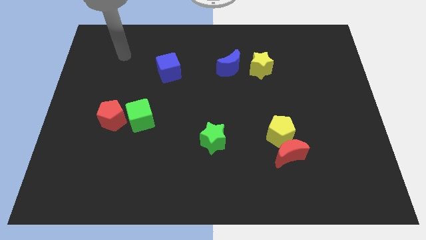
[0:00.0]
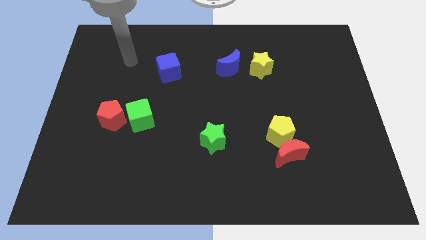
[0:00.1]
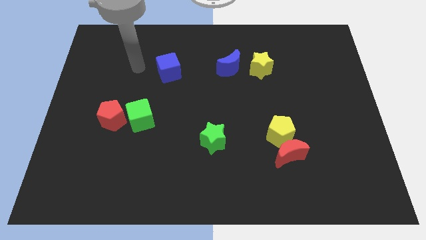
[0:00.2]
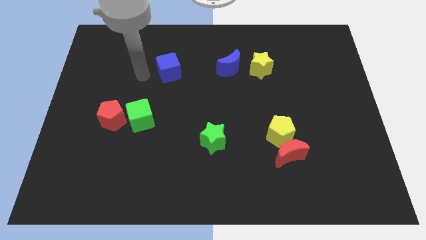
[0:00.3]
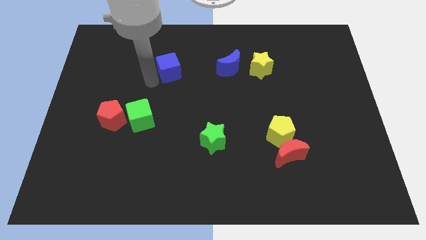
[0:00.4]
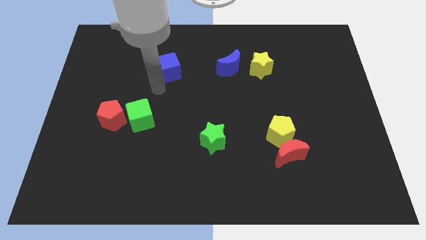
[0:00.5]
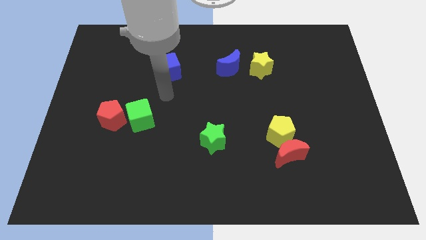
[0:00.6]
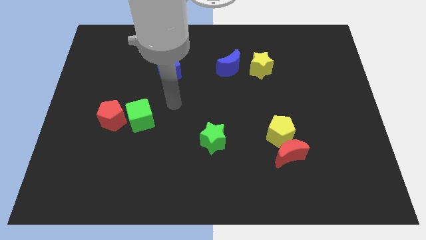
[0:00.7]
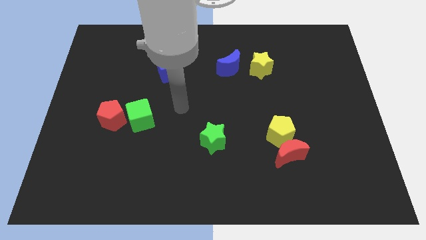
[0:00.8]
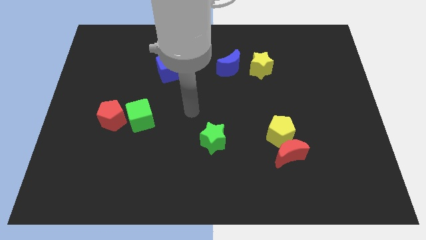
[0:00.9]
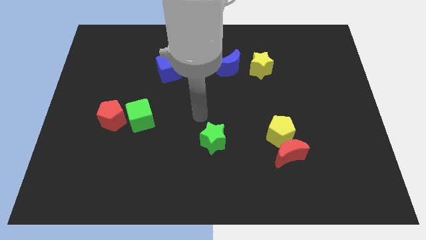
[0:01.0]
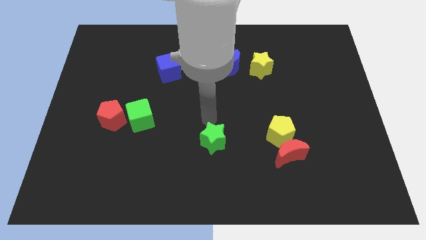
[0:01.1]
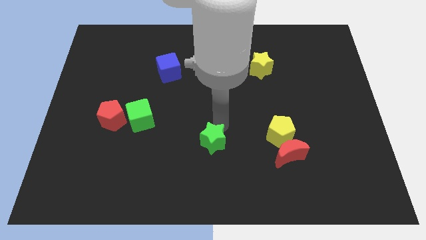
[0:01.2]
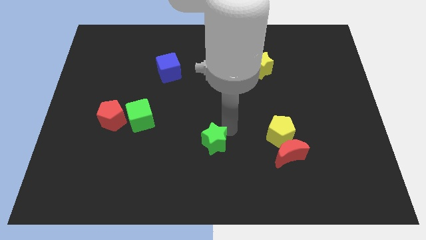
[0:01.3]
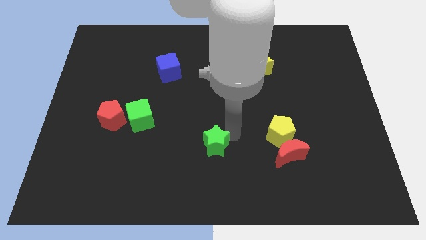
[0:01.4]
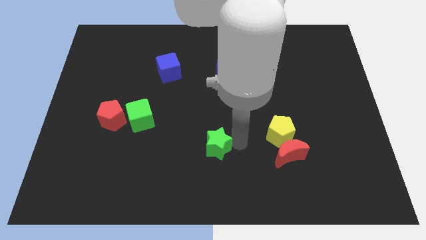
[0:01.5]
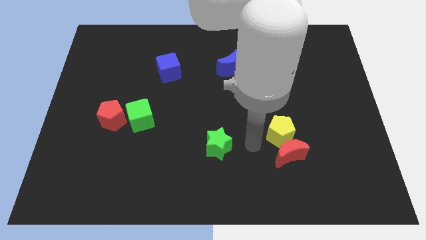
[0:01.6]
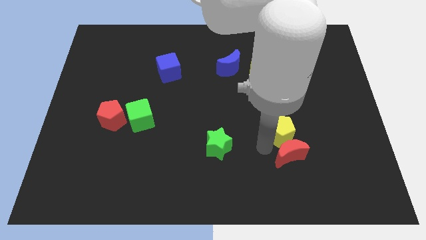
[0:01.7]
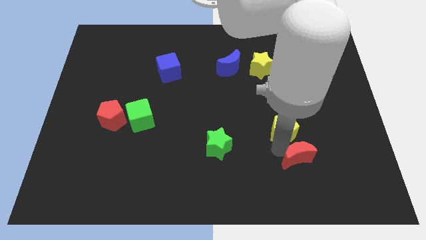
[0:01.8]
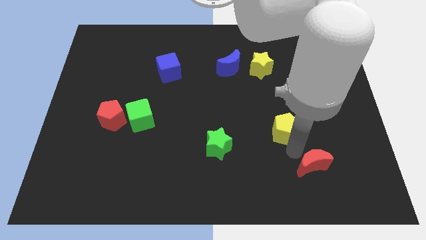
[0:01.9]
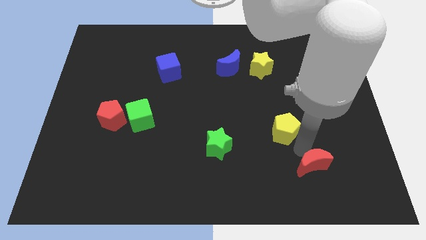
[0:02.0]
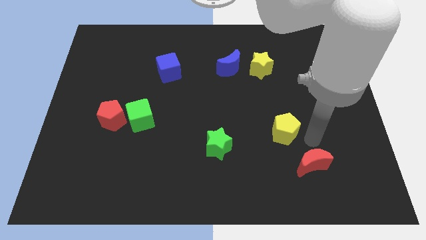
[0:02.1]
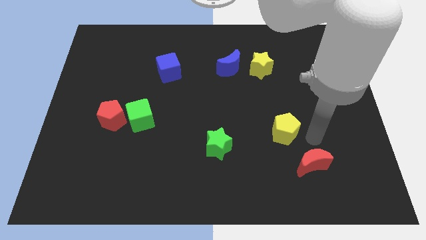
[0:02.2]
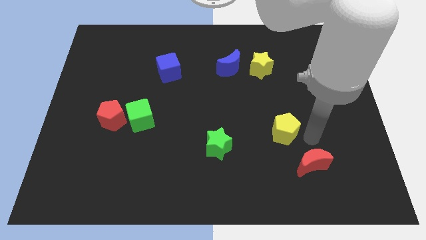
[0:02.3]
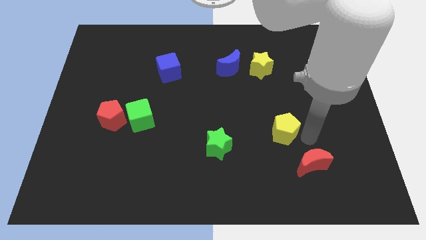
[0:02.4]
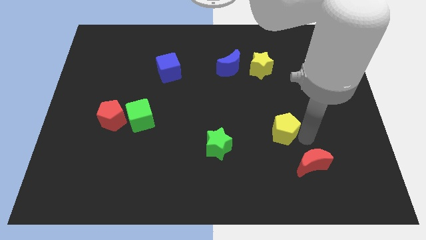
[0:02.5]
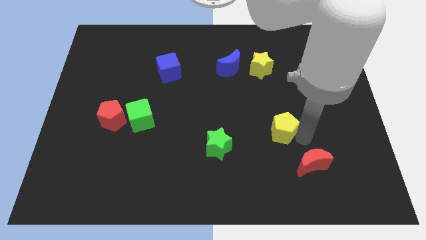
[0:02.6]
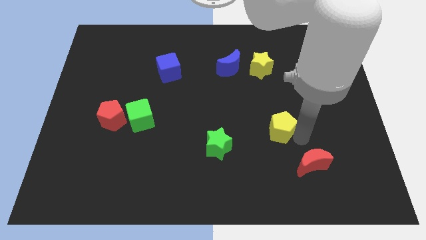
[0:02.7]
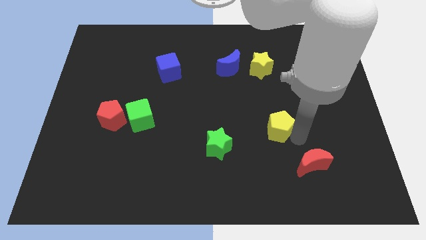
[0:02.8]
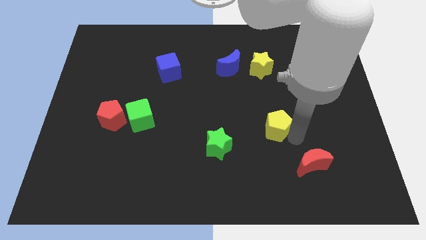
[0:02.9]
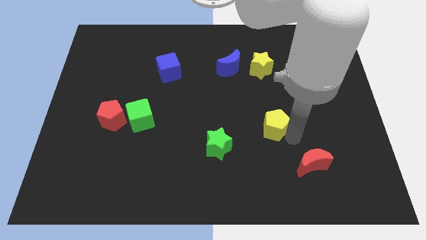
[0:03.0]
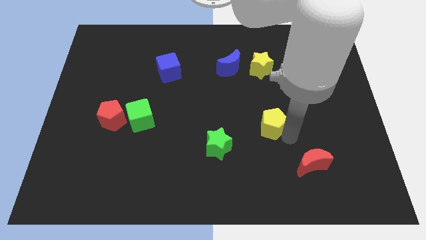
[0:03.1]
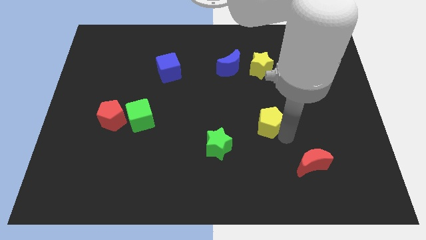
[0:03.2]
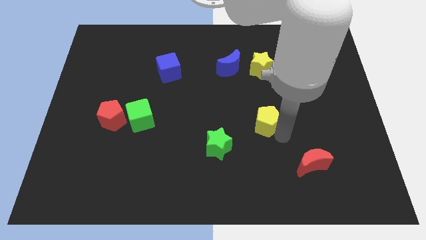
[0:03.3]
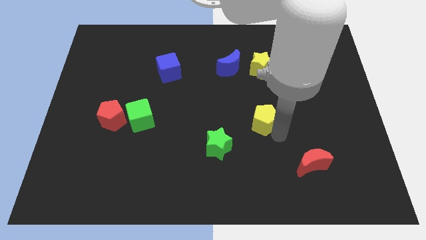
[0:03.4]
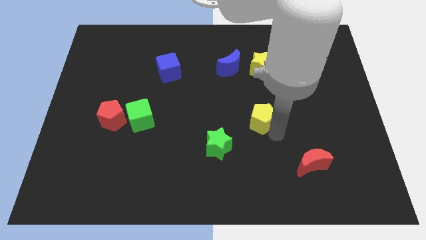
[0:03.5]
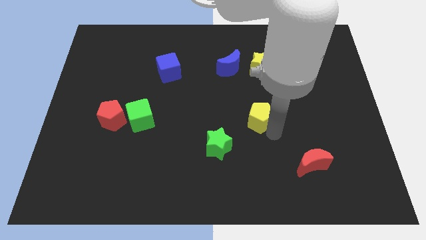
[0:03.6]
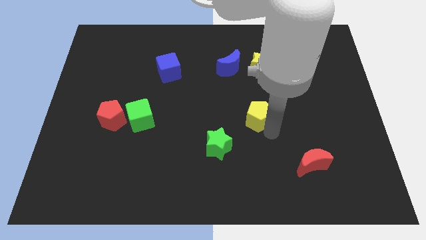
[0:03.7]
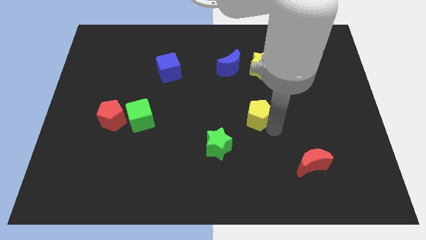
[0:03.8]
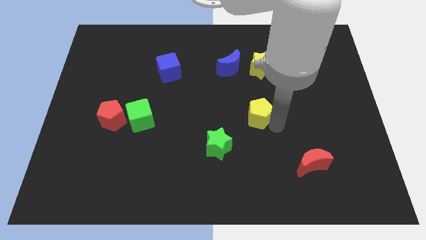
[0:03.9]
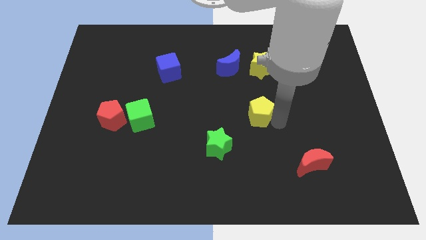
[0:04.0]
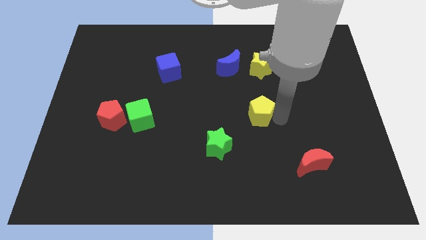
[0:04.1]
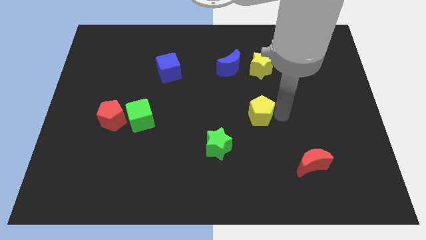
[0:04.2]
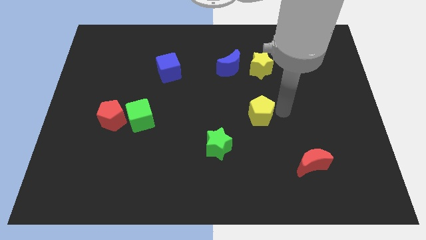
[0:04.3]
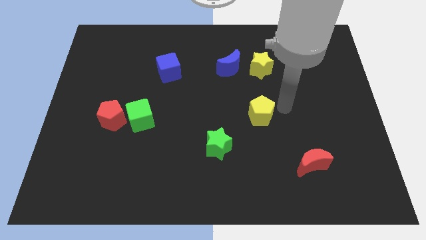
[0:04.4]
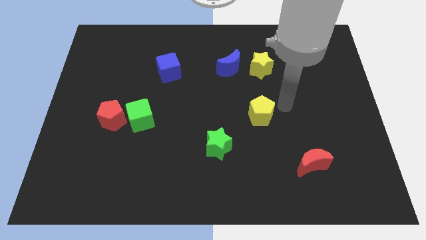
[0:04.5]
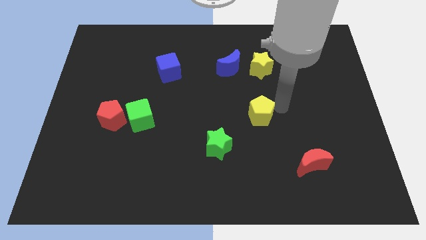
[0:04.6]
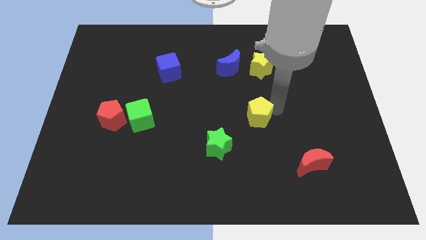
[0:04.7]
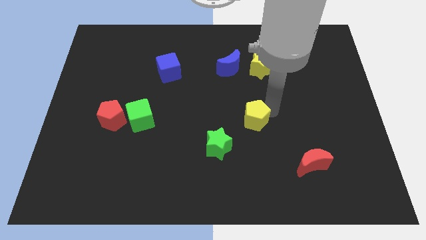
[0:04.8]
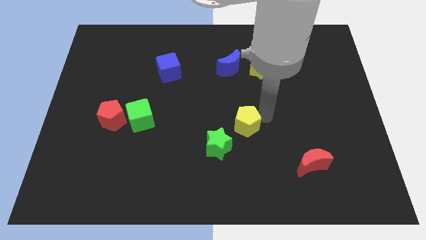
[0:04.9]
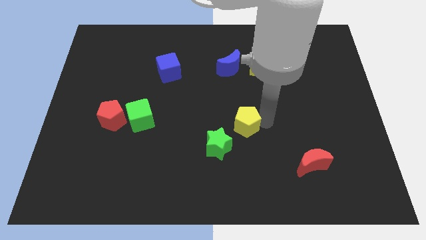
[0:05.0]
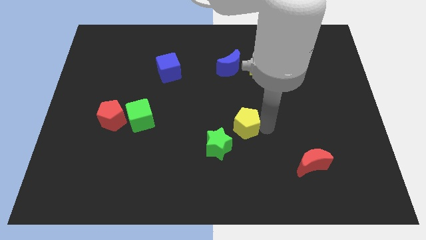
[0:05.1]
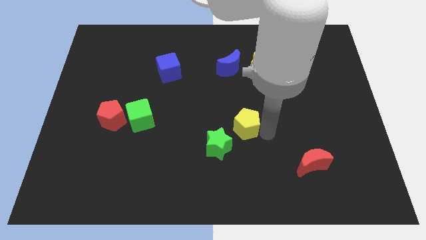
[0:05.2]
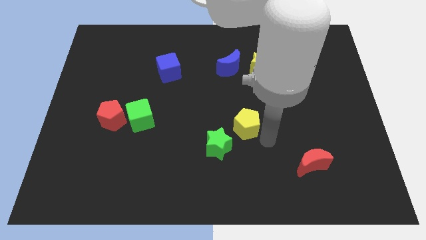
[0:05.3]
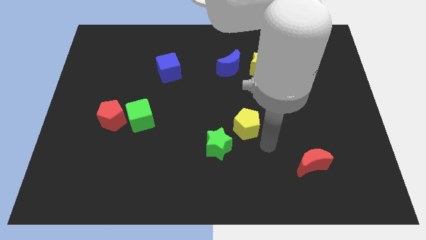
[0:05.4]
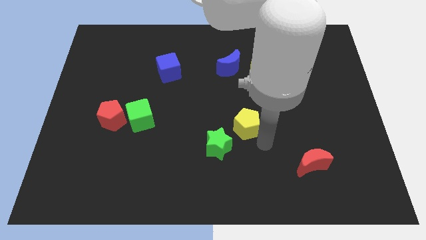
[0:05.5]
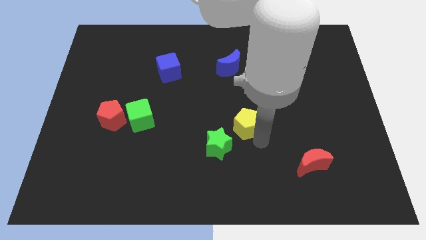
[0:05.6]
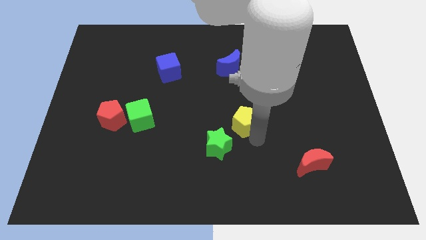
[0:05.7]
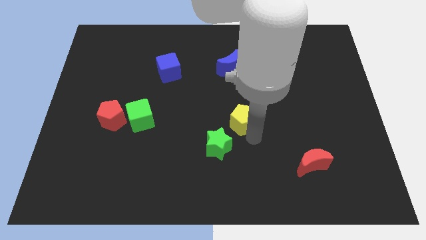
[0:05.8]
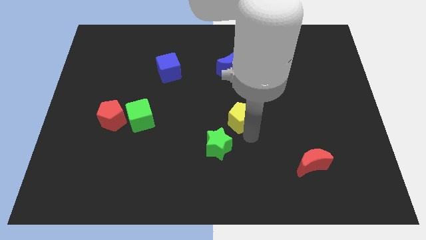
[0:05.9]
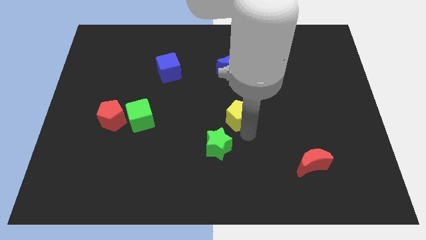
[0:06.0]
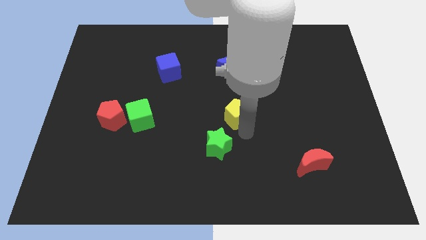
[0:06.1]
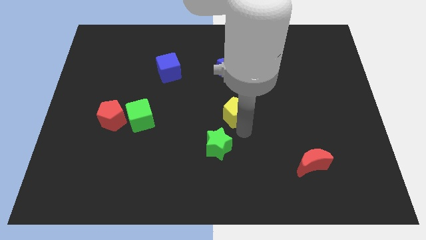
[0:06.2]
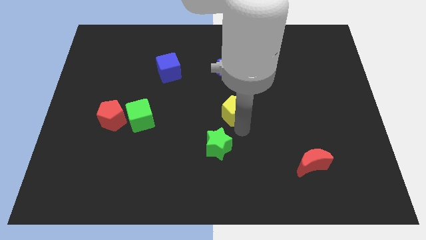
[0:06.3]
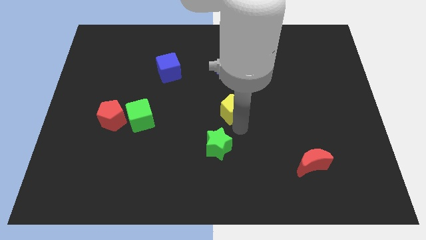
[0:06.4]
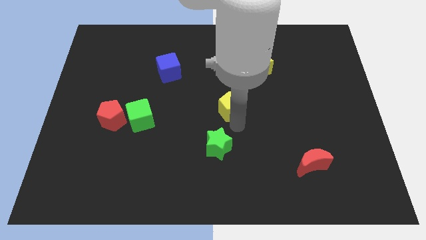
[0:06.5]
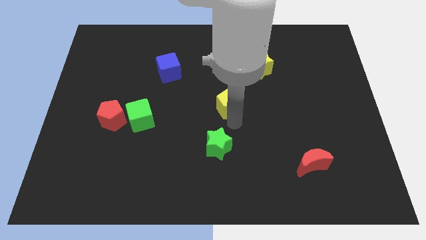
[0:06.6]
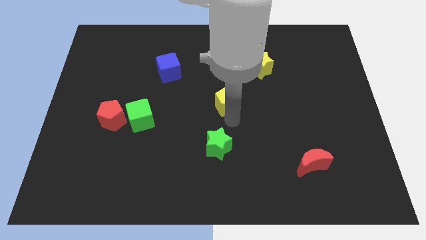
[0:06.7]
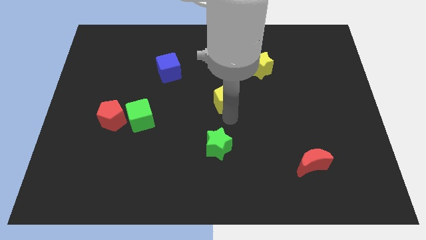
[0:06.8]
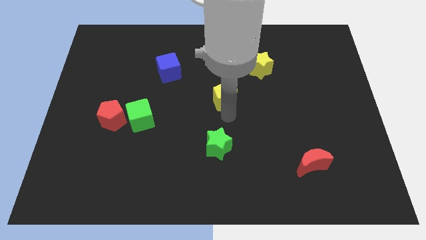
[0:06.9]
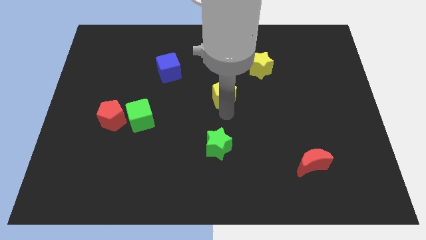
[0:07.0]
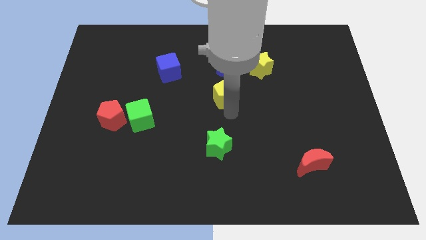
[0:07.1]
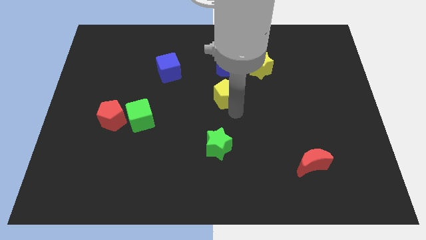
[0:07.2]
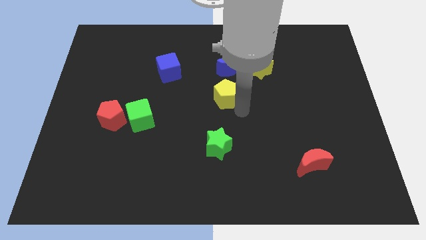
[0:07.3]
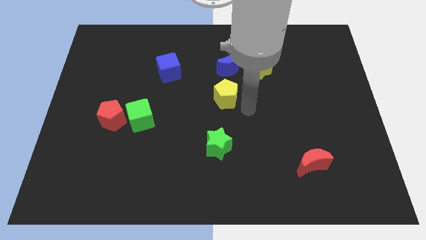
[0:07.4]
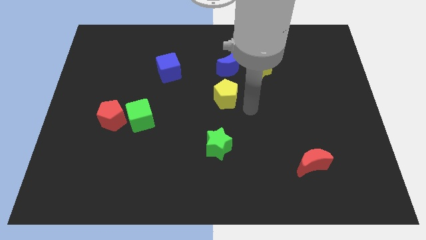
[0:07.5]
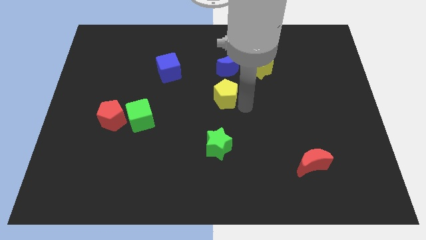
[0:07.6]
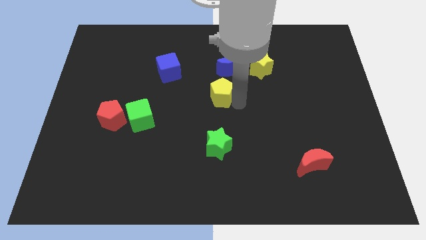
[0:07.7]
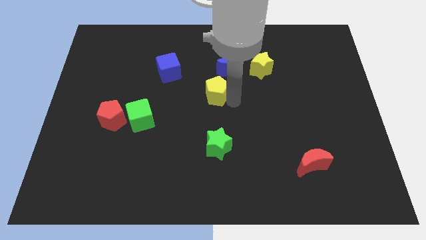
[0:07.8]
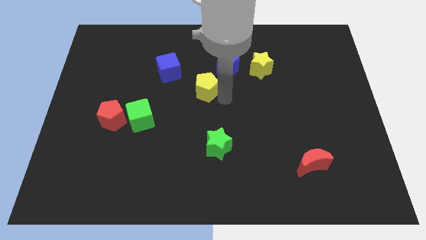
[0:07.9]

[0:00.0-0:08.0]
push the yellow pentagon up and to the left diagonally
